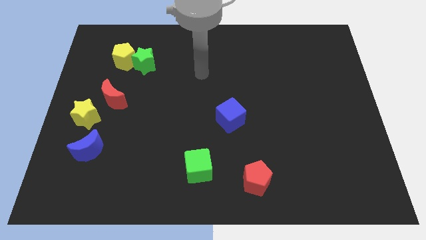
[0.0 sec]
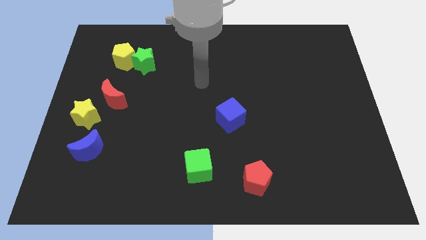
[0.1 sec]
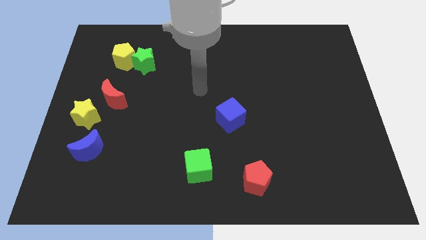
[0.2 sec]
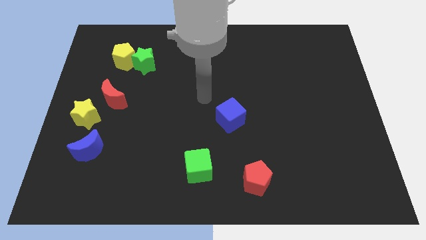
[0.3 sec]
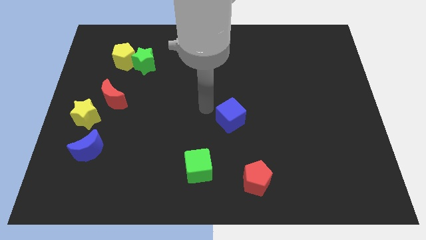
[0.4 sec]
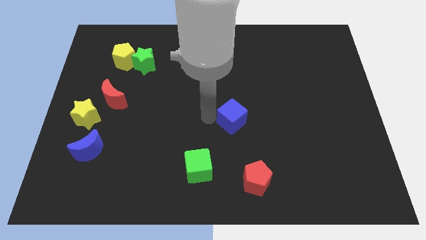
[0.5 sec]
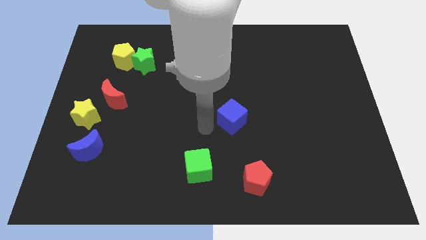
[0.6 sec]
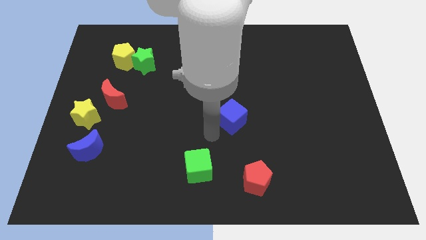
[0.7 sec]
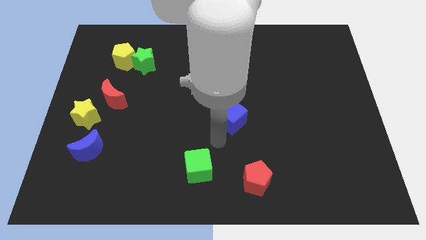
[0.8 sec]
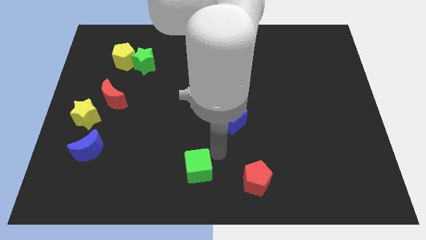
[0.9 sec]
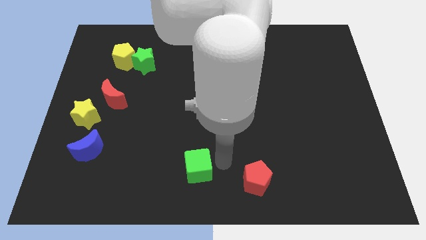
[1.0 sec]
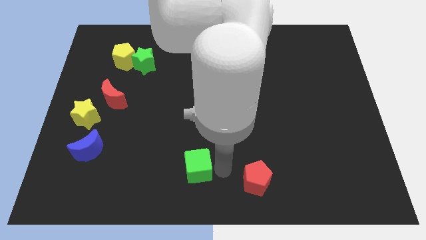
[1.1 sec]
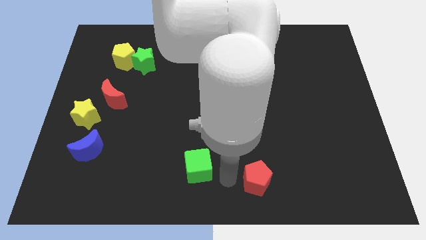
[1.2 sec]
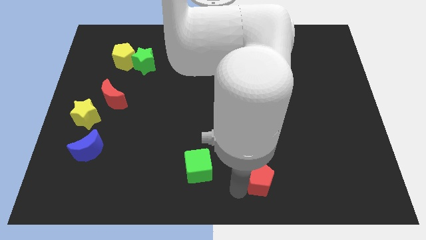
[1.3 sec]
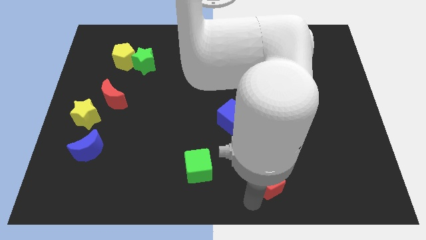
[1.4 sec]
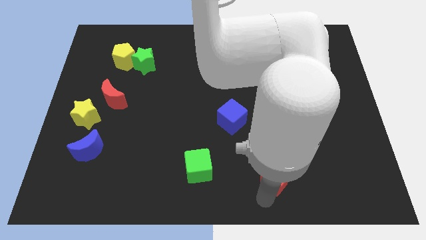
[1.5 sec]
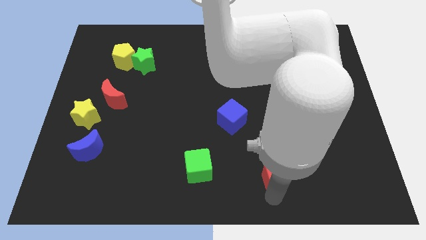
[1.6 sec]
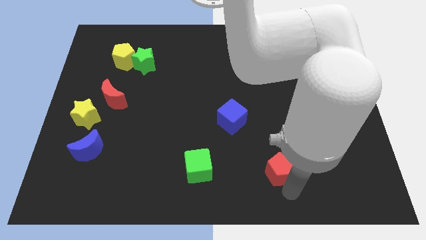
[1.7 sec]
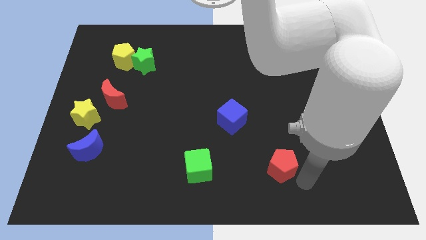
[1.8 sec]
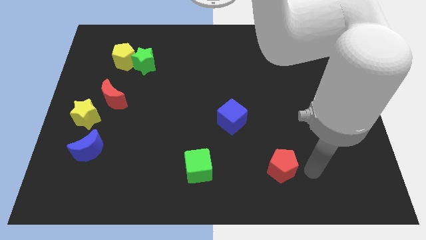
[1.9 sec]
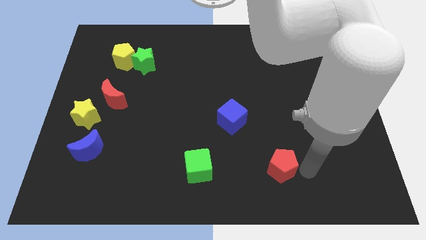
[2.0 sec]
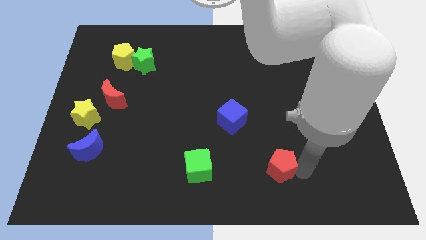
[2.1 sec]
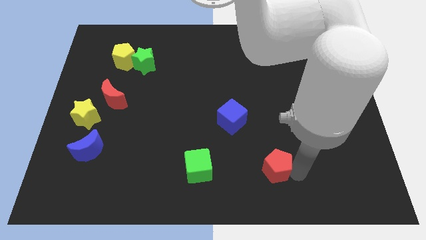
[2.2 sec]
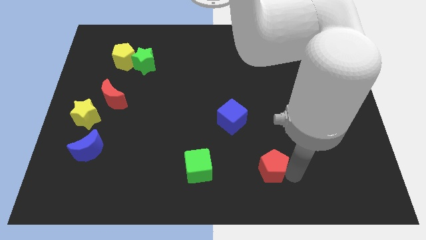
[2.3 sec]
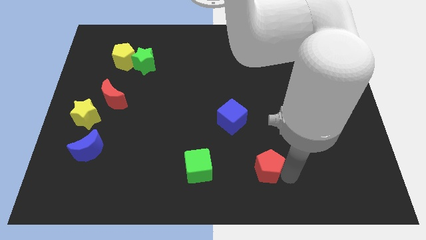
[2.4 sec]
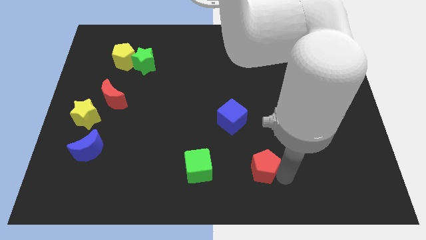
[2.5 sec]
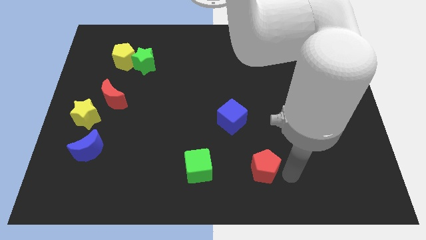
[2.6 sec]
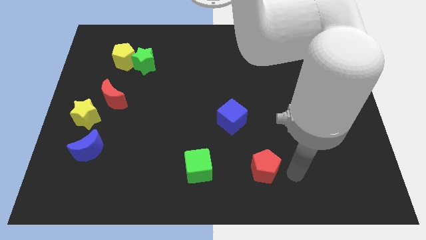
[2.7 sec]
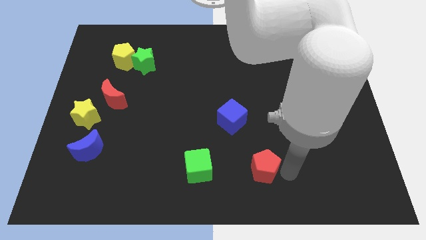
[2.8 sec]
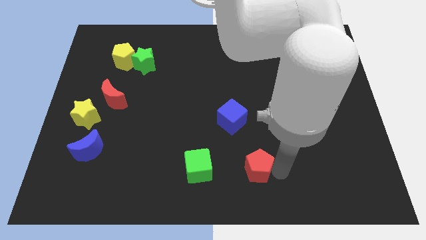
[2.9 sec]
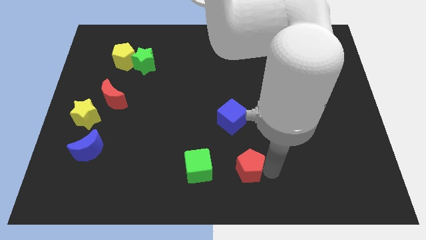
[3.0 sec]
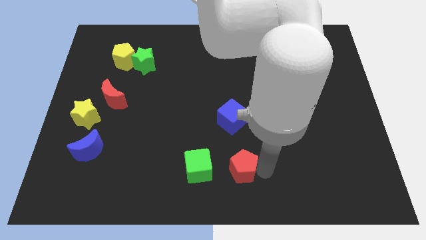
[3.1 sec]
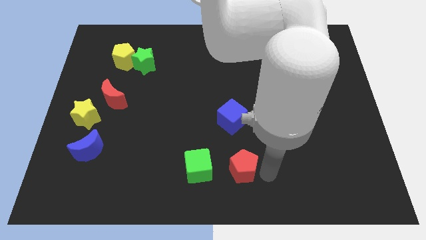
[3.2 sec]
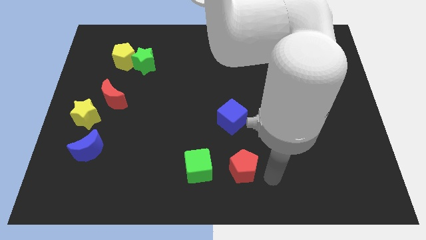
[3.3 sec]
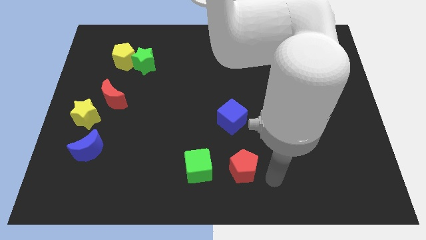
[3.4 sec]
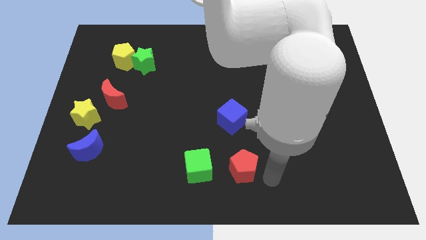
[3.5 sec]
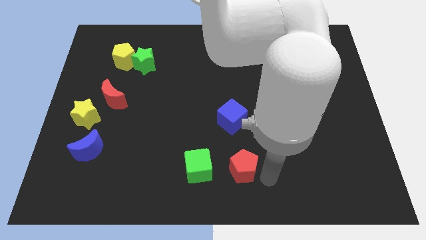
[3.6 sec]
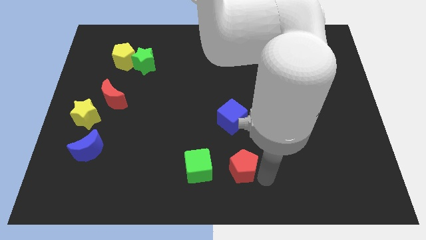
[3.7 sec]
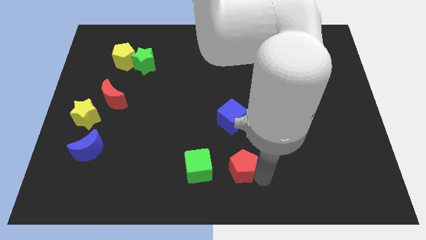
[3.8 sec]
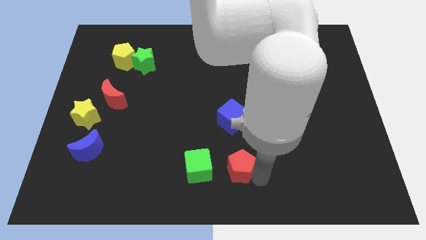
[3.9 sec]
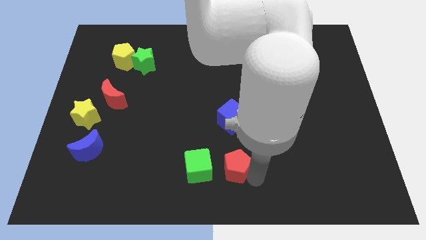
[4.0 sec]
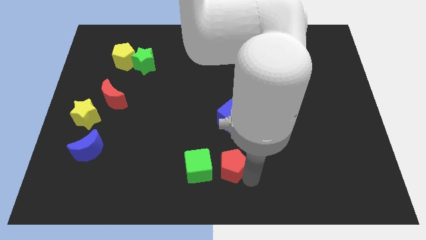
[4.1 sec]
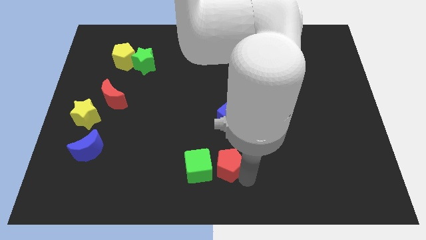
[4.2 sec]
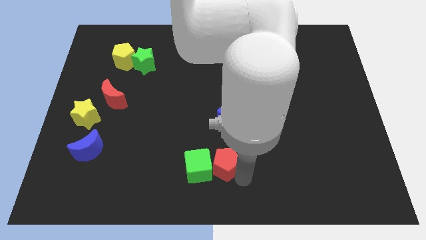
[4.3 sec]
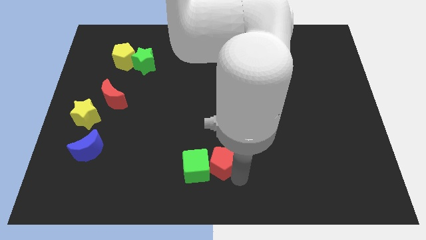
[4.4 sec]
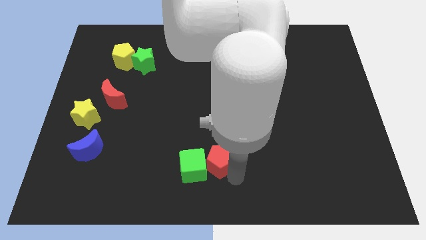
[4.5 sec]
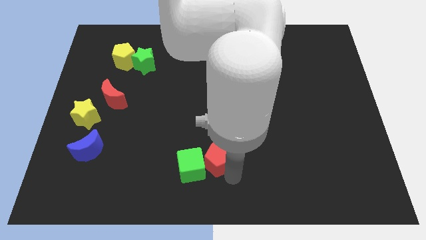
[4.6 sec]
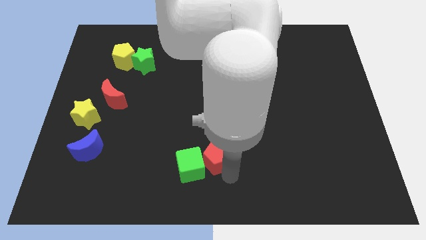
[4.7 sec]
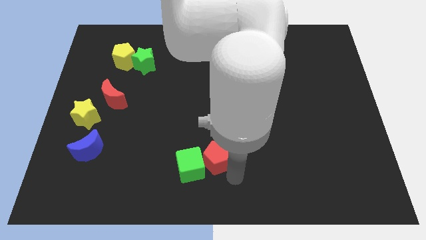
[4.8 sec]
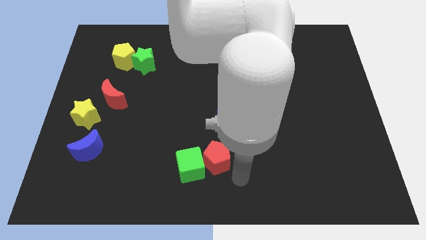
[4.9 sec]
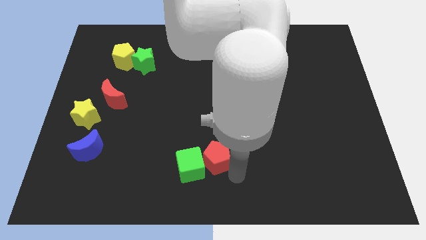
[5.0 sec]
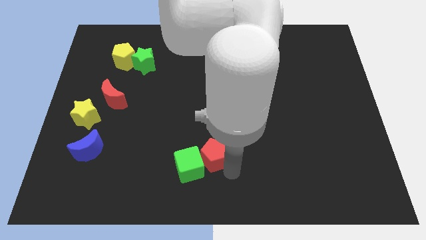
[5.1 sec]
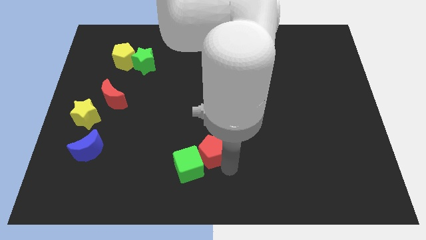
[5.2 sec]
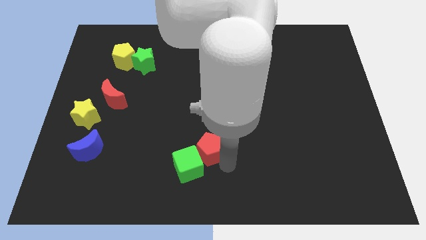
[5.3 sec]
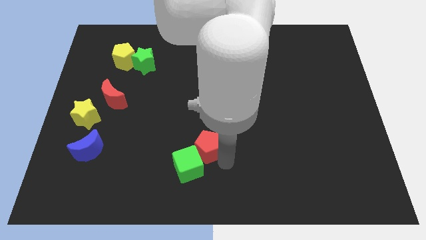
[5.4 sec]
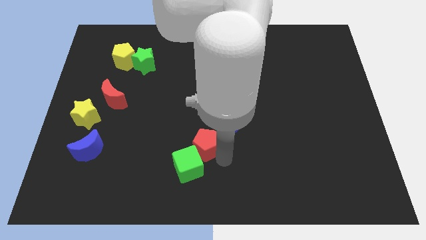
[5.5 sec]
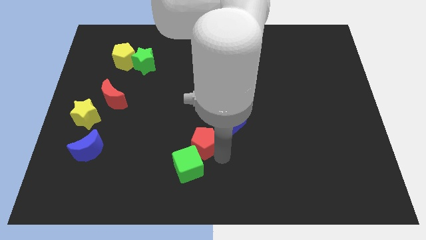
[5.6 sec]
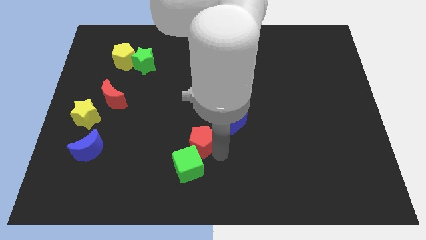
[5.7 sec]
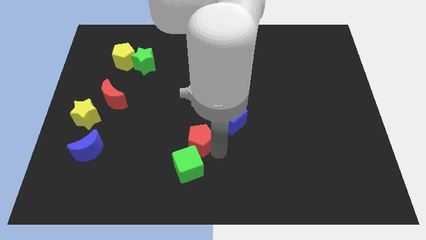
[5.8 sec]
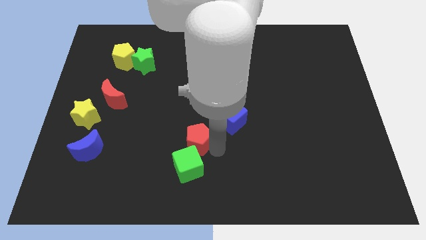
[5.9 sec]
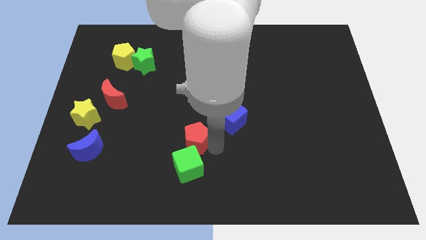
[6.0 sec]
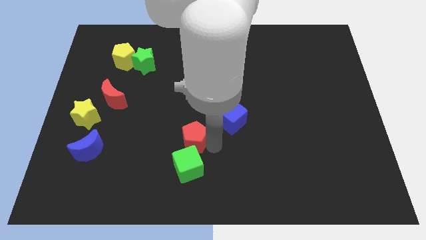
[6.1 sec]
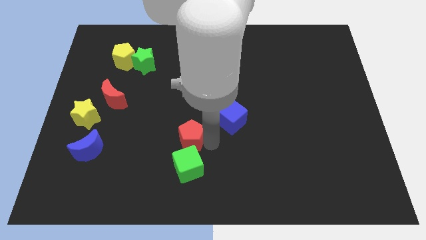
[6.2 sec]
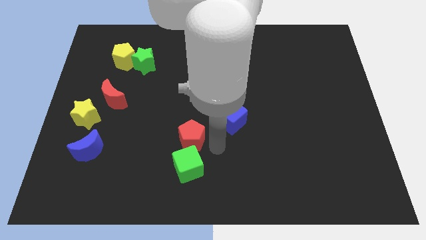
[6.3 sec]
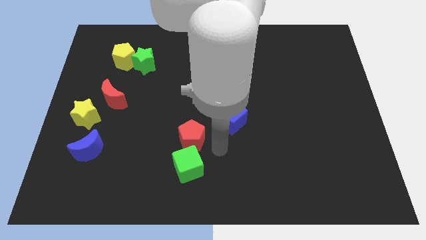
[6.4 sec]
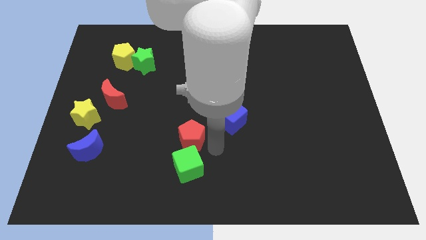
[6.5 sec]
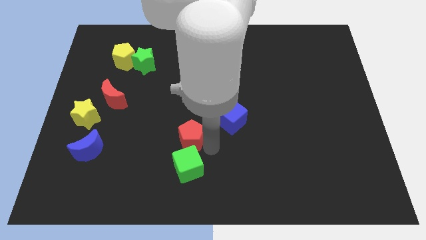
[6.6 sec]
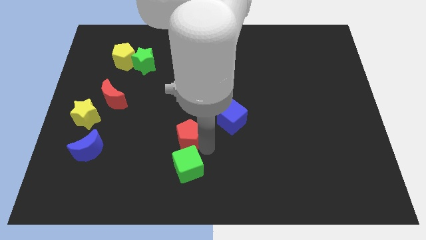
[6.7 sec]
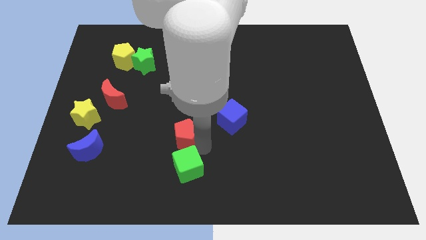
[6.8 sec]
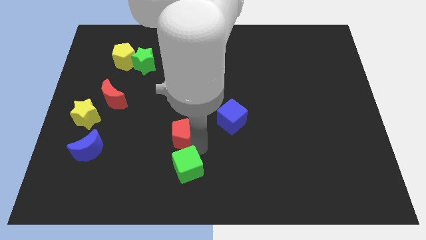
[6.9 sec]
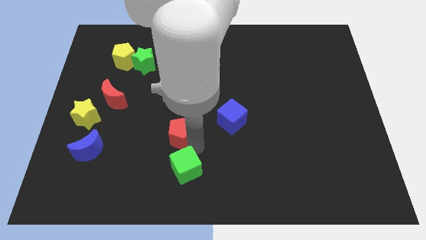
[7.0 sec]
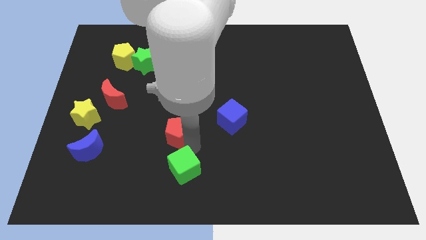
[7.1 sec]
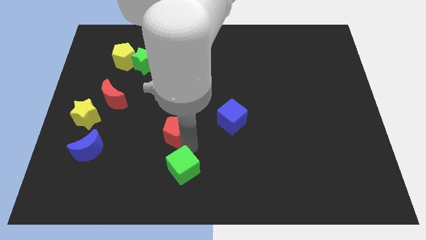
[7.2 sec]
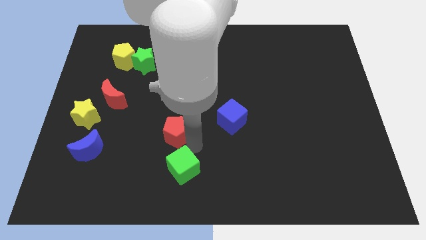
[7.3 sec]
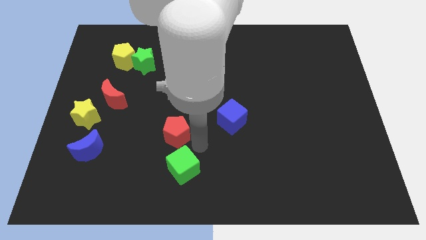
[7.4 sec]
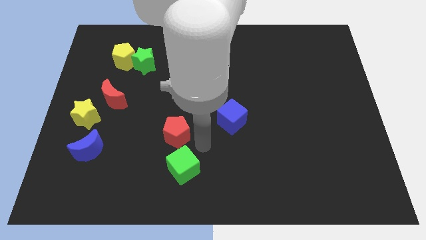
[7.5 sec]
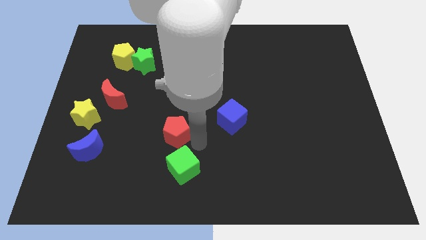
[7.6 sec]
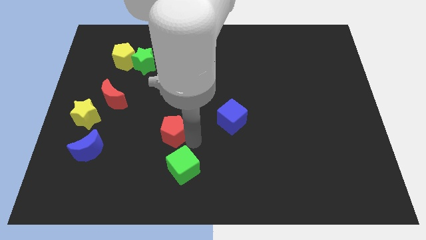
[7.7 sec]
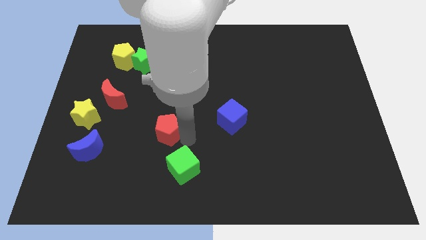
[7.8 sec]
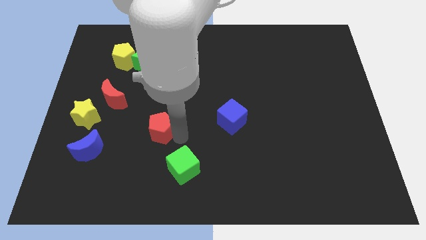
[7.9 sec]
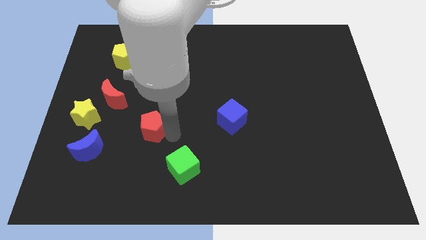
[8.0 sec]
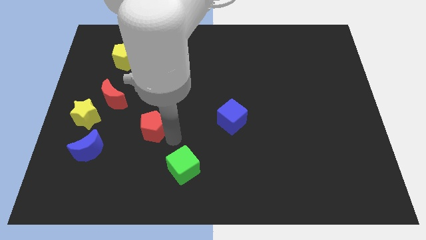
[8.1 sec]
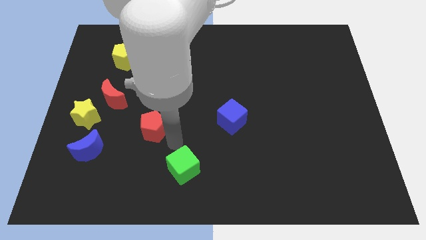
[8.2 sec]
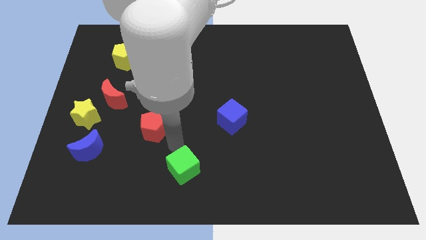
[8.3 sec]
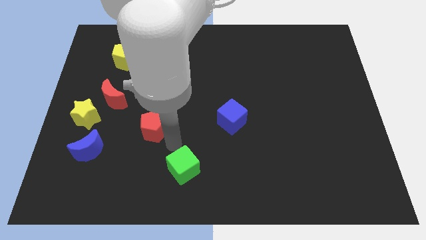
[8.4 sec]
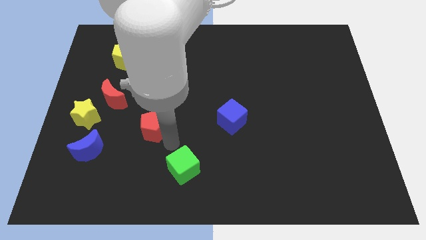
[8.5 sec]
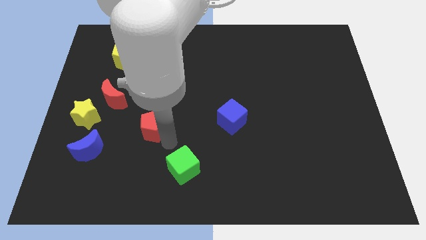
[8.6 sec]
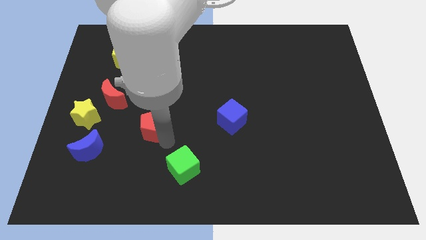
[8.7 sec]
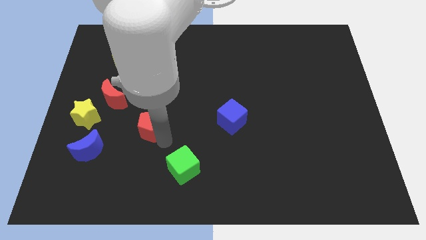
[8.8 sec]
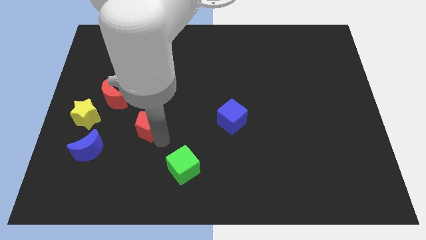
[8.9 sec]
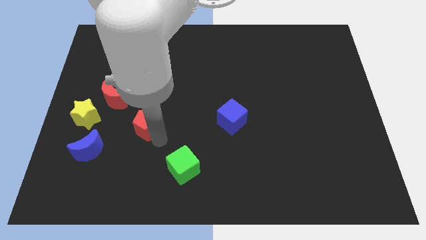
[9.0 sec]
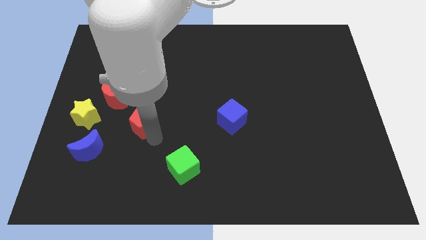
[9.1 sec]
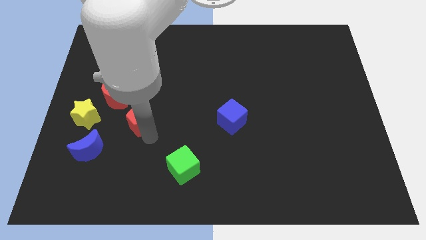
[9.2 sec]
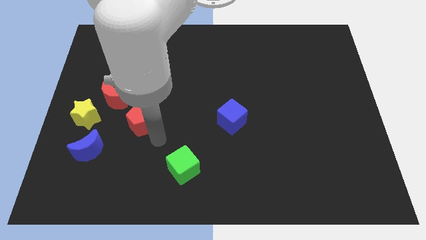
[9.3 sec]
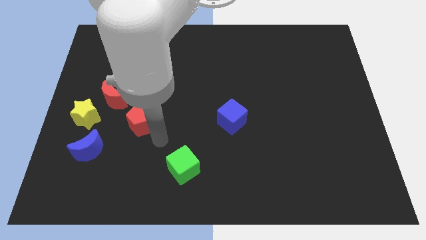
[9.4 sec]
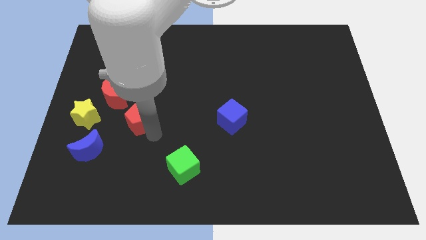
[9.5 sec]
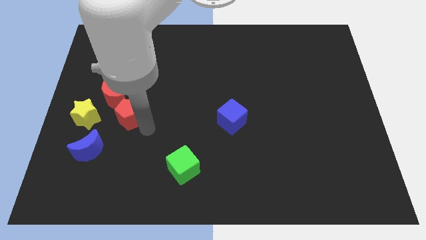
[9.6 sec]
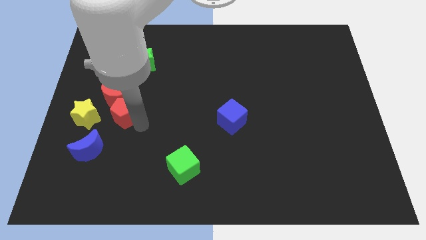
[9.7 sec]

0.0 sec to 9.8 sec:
put the red pentagon next to the red moon
